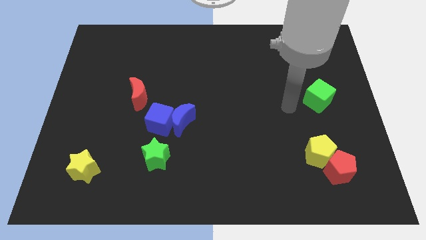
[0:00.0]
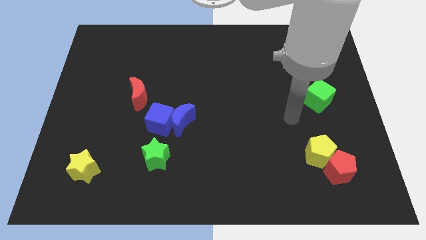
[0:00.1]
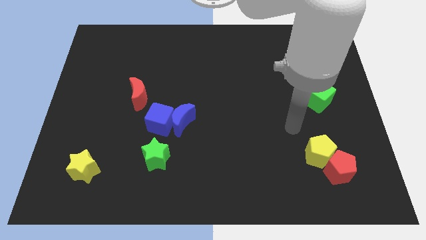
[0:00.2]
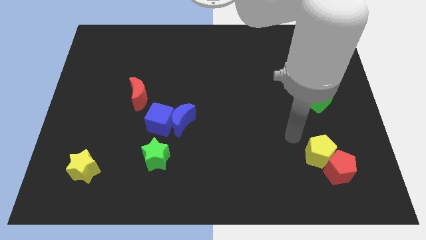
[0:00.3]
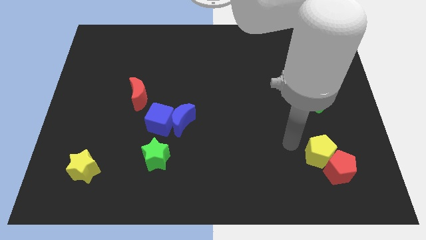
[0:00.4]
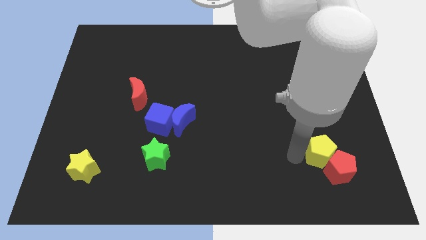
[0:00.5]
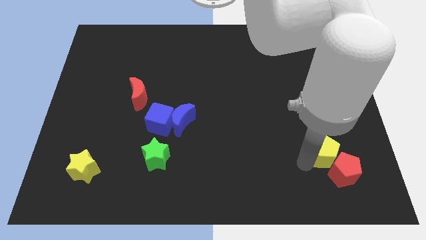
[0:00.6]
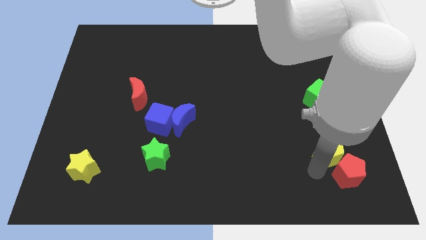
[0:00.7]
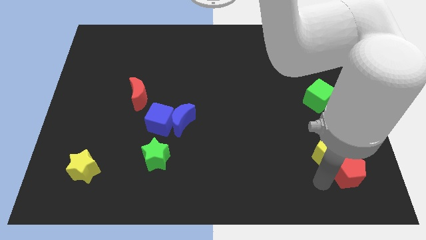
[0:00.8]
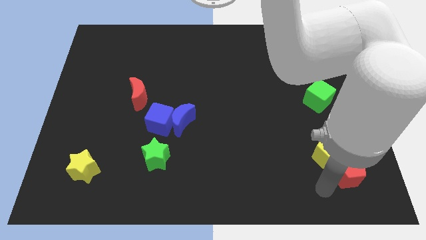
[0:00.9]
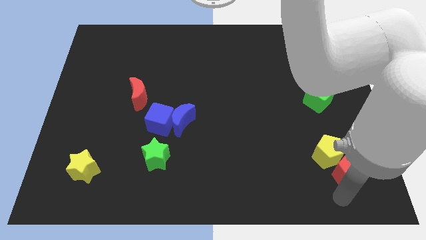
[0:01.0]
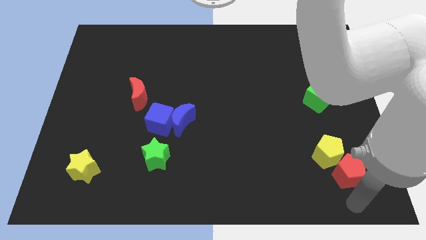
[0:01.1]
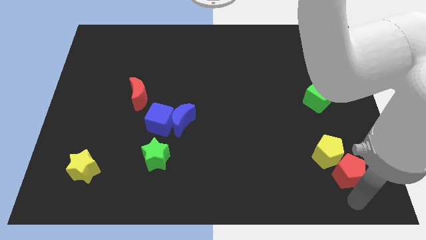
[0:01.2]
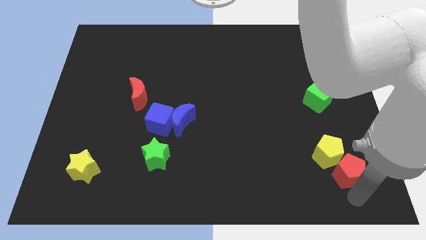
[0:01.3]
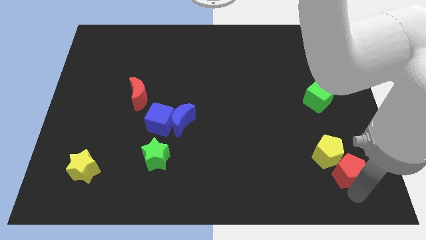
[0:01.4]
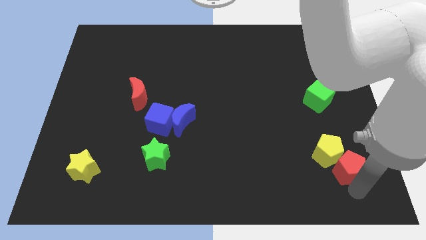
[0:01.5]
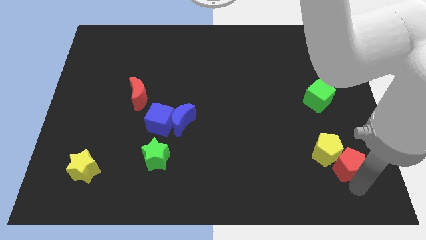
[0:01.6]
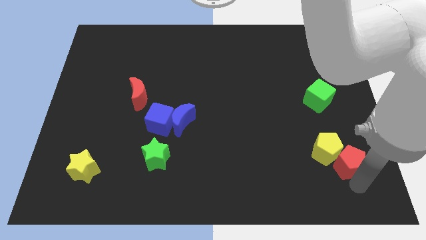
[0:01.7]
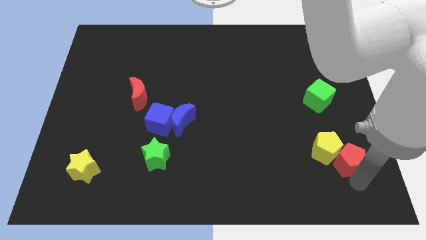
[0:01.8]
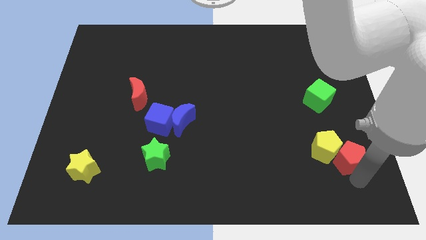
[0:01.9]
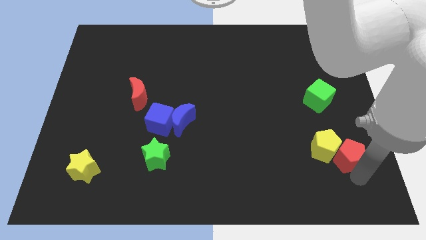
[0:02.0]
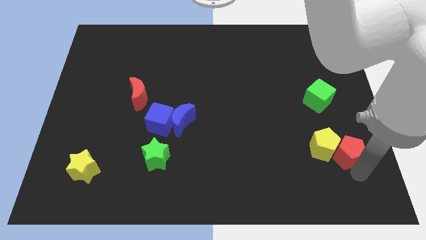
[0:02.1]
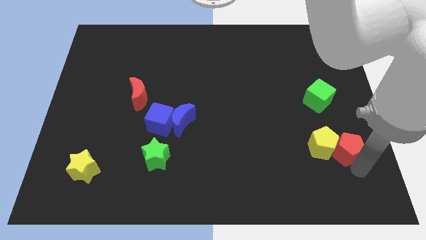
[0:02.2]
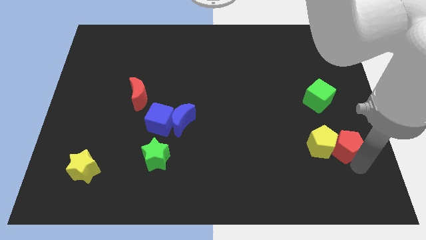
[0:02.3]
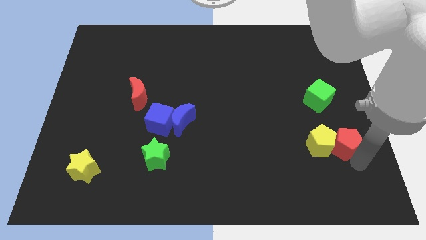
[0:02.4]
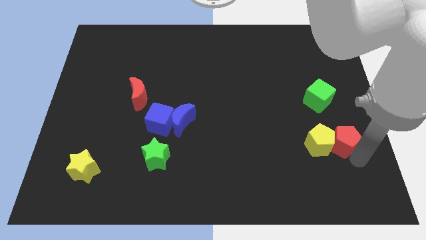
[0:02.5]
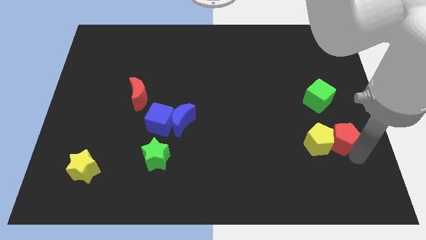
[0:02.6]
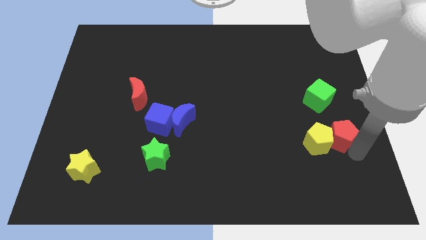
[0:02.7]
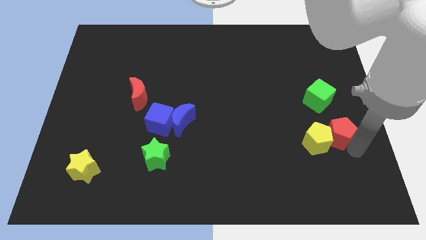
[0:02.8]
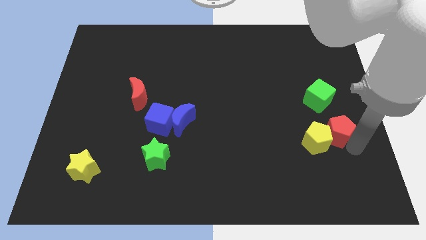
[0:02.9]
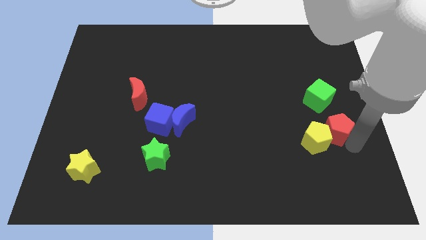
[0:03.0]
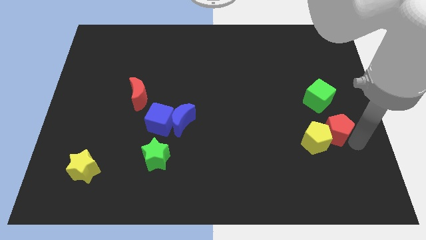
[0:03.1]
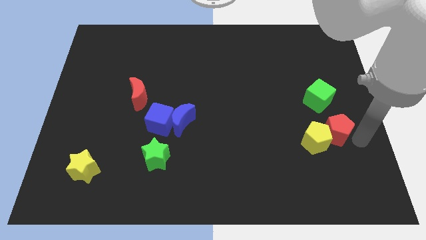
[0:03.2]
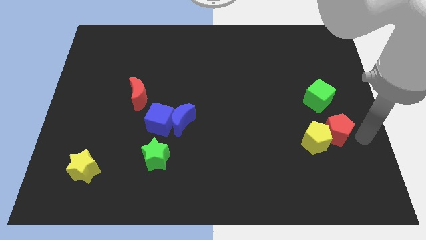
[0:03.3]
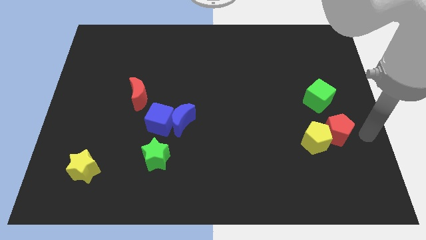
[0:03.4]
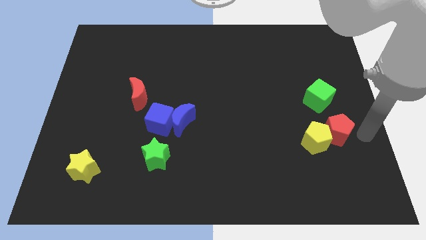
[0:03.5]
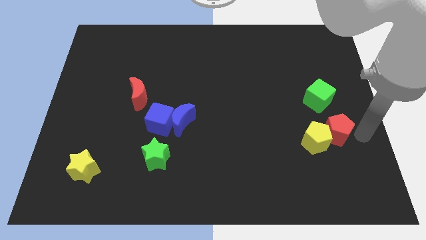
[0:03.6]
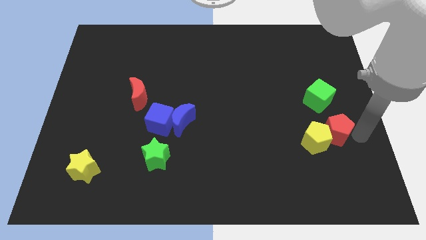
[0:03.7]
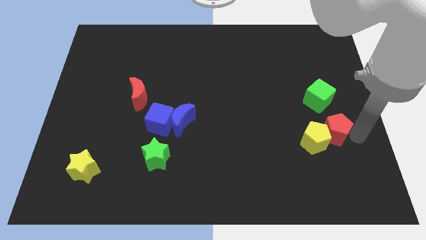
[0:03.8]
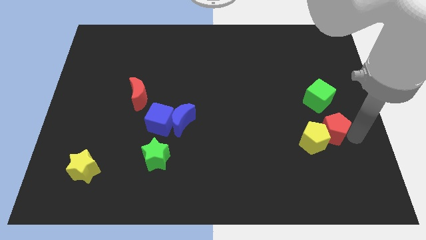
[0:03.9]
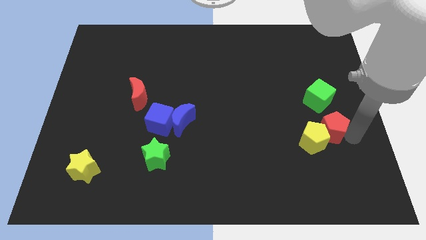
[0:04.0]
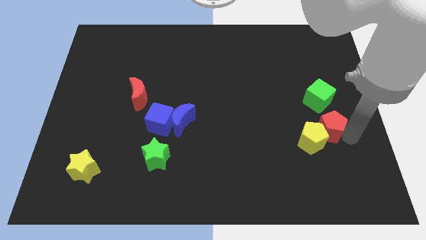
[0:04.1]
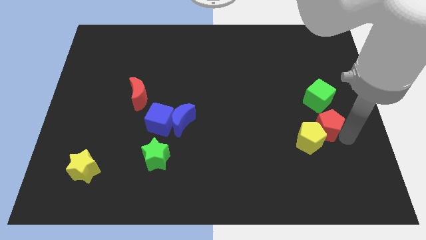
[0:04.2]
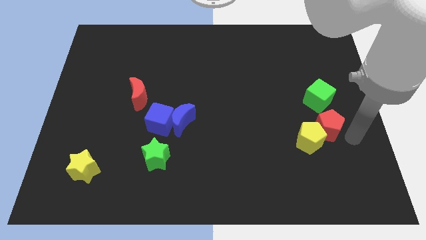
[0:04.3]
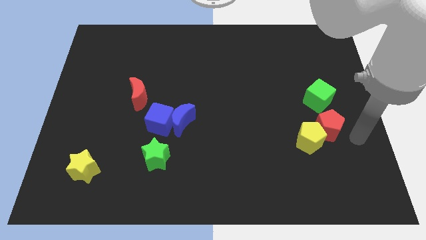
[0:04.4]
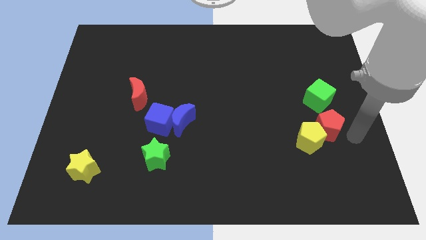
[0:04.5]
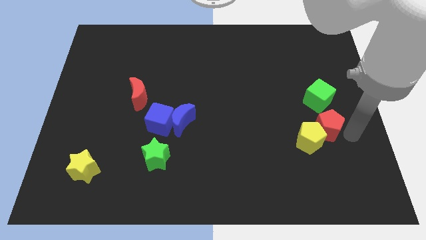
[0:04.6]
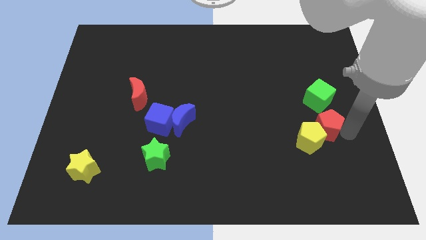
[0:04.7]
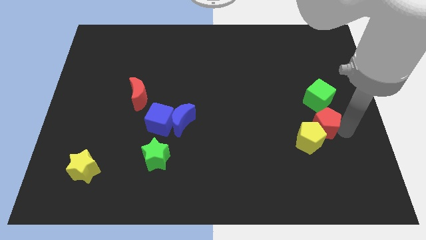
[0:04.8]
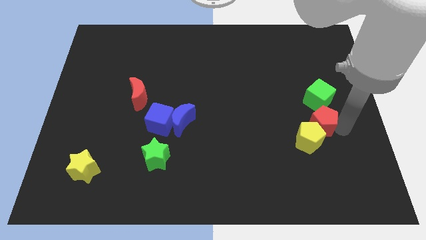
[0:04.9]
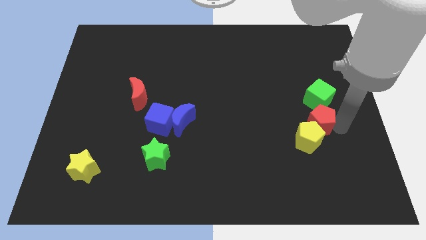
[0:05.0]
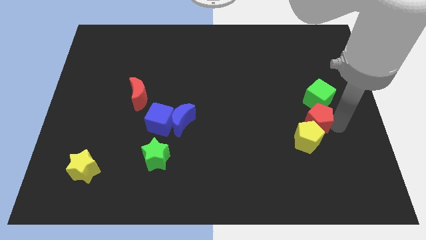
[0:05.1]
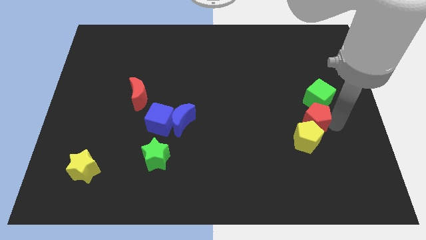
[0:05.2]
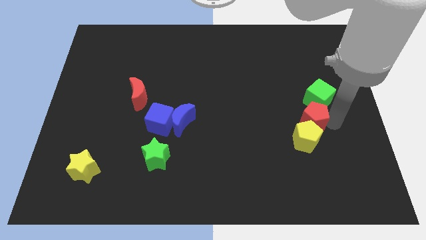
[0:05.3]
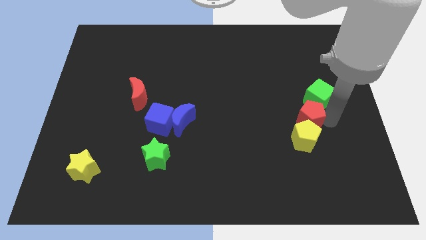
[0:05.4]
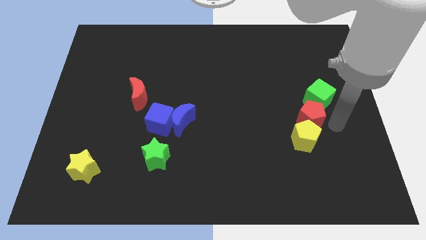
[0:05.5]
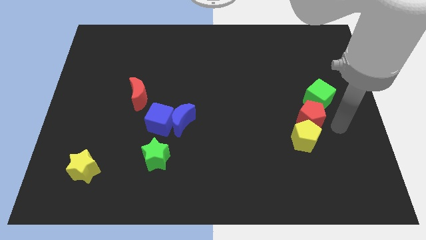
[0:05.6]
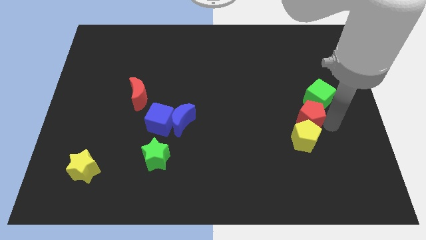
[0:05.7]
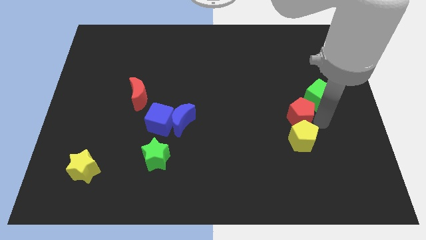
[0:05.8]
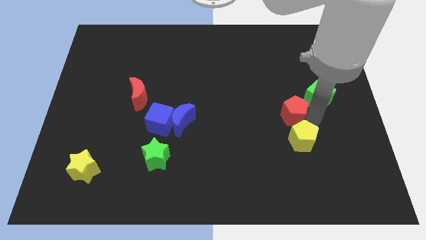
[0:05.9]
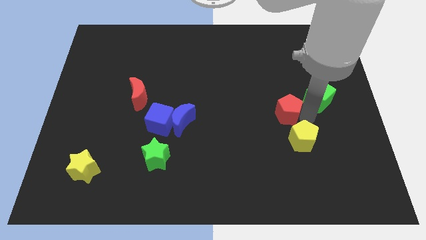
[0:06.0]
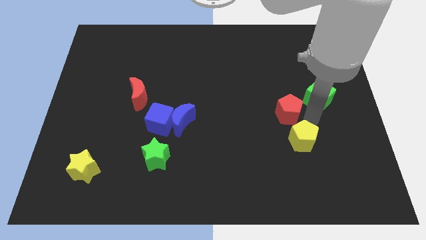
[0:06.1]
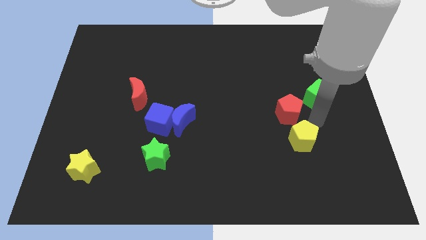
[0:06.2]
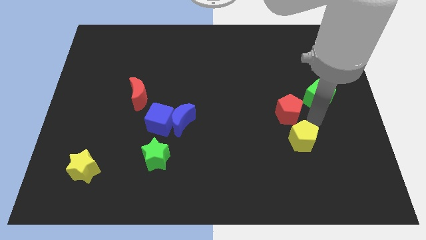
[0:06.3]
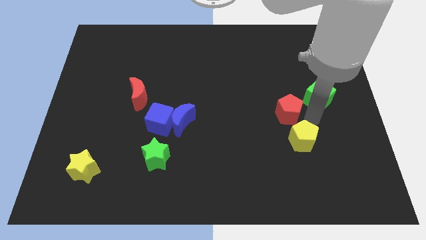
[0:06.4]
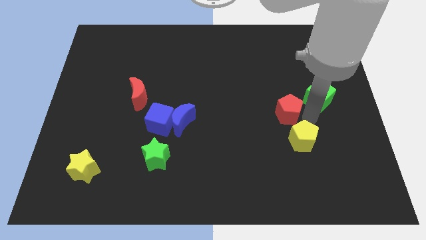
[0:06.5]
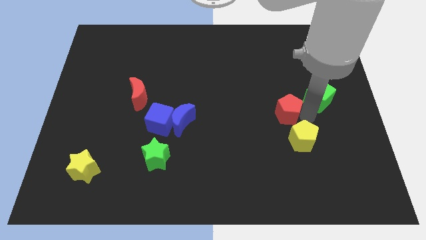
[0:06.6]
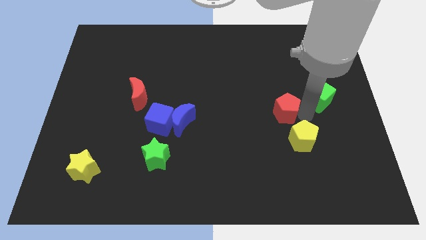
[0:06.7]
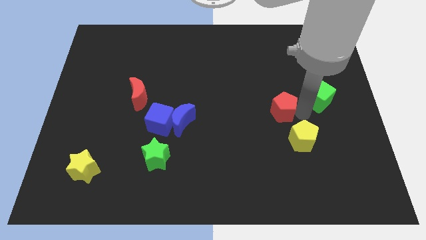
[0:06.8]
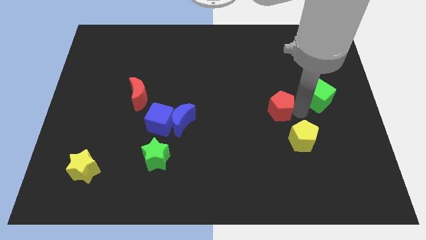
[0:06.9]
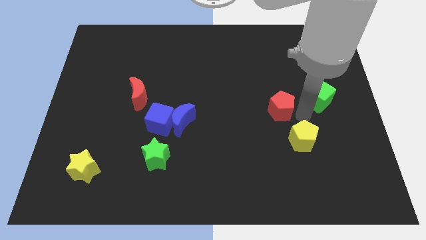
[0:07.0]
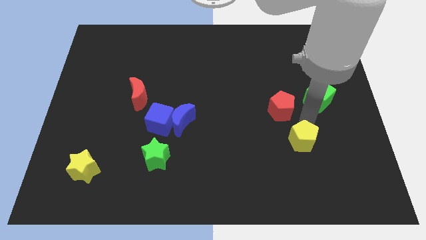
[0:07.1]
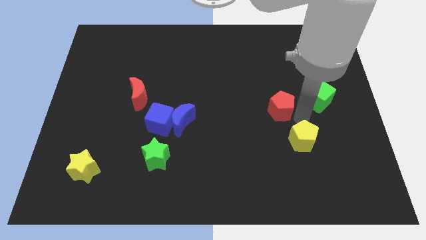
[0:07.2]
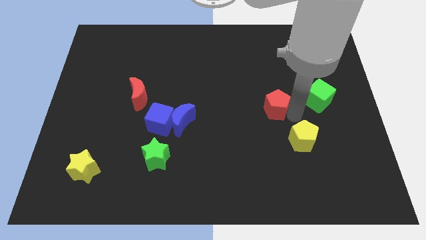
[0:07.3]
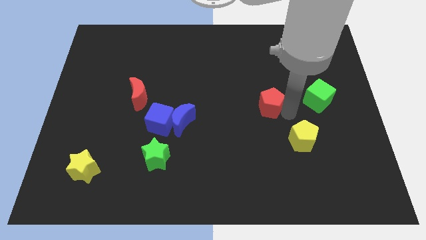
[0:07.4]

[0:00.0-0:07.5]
push the red pentagon up and then to the left

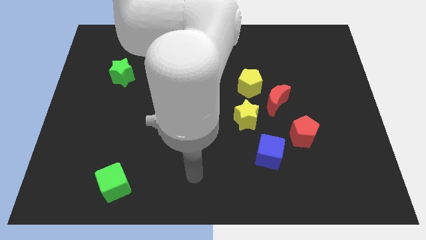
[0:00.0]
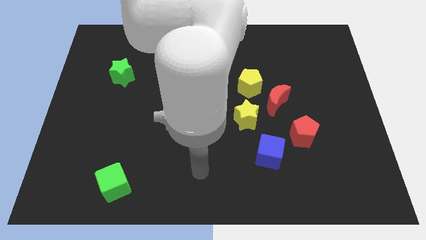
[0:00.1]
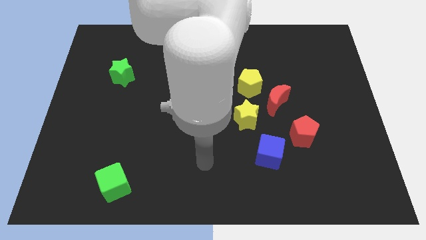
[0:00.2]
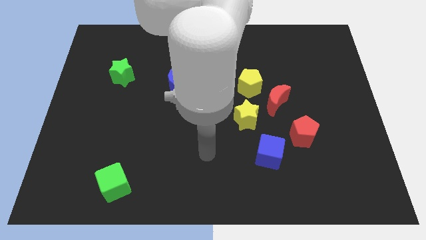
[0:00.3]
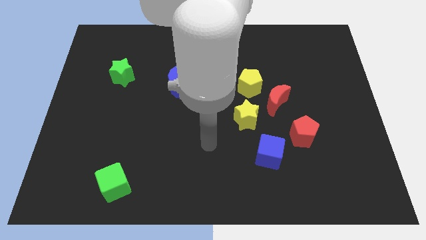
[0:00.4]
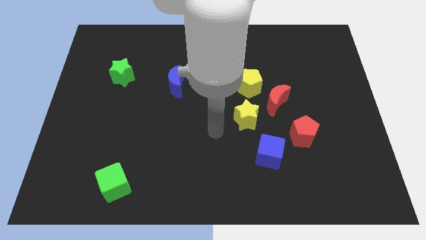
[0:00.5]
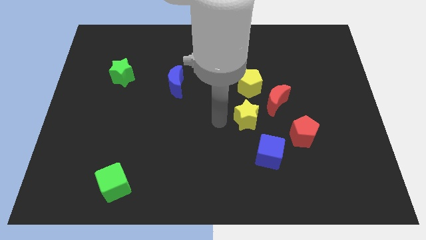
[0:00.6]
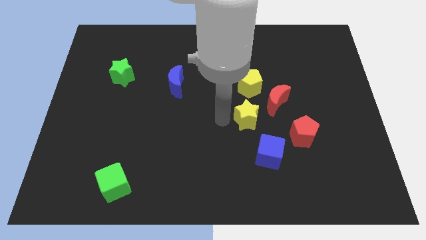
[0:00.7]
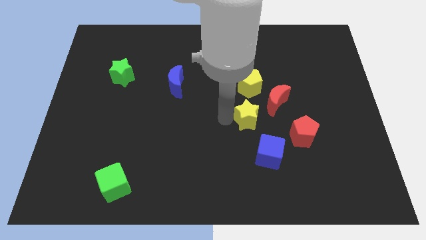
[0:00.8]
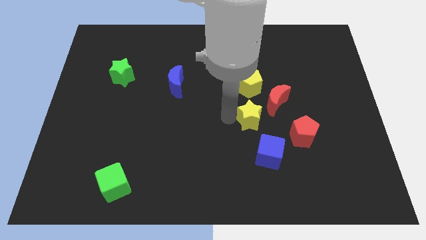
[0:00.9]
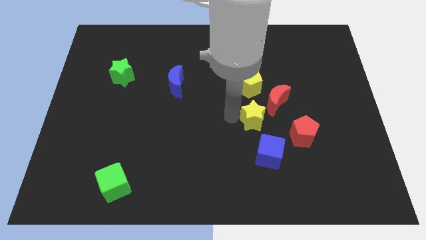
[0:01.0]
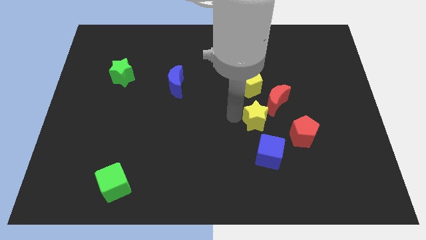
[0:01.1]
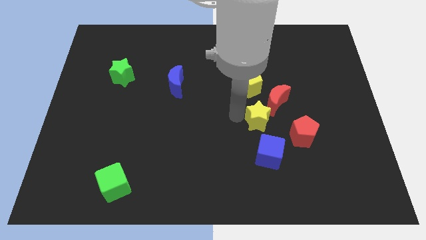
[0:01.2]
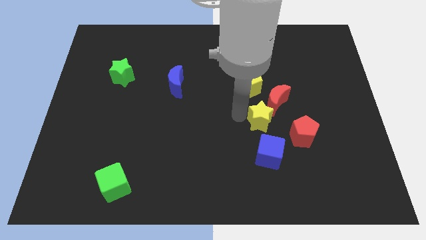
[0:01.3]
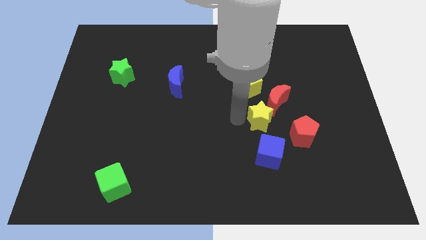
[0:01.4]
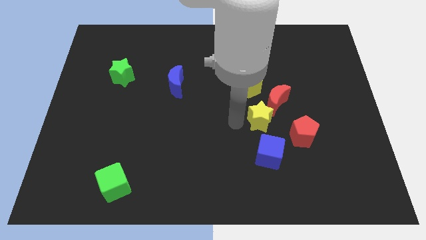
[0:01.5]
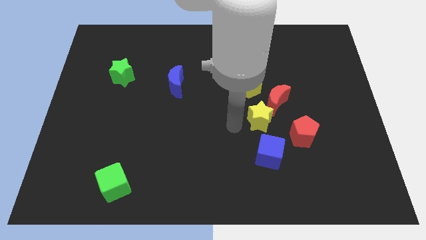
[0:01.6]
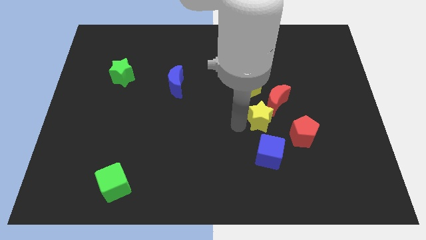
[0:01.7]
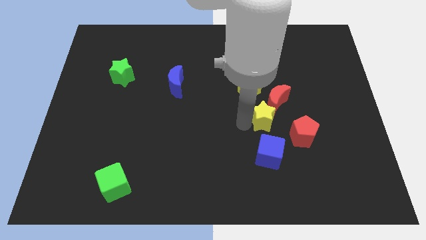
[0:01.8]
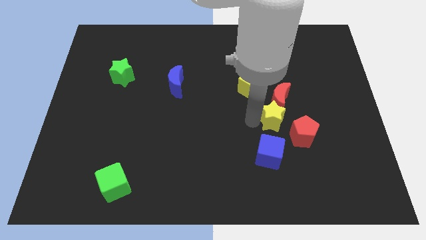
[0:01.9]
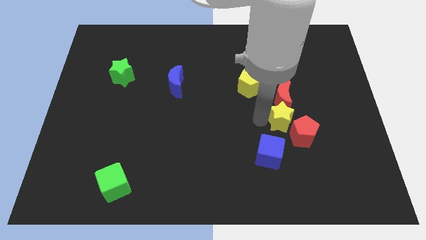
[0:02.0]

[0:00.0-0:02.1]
slide the yellow star a little right
